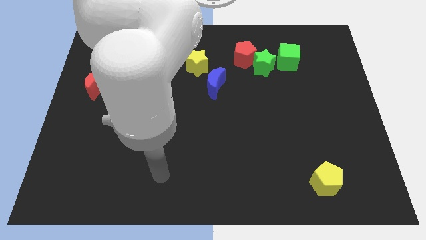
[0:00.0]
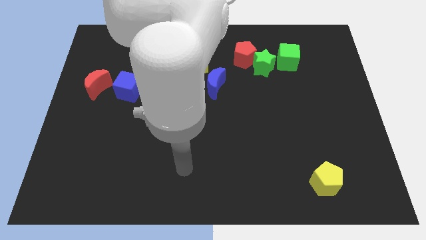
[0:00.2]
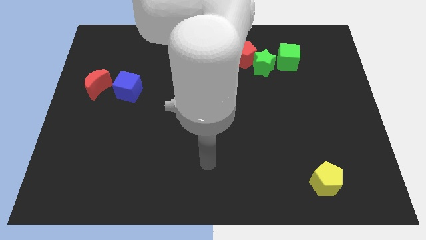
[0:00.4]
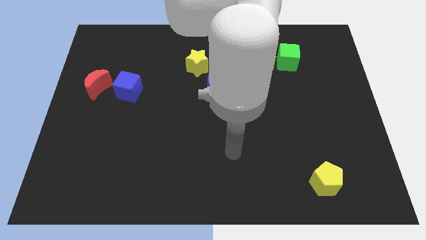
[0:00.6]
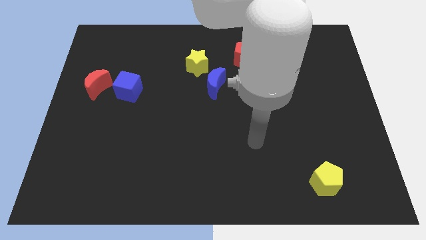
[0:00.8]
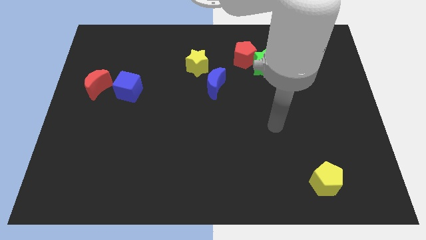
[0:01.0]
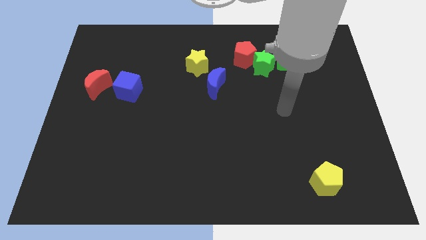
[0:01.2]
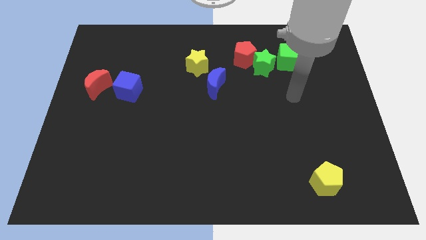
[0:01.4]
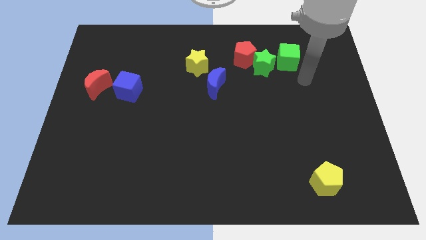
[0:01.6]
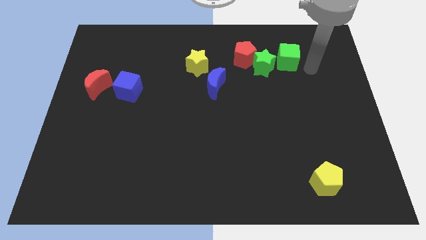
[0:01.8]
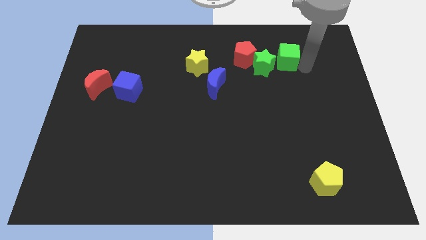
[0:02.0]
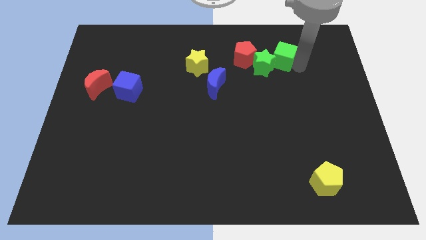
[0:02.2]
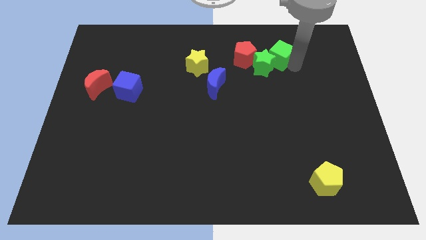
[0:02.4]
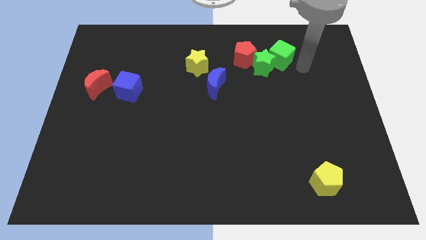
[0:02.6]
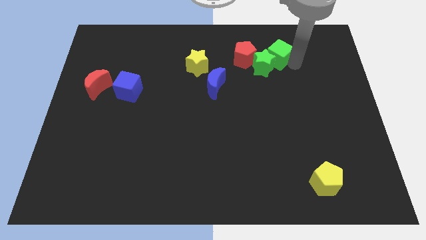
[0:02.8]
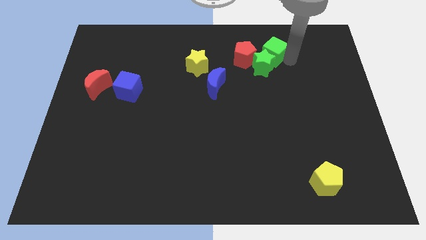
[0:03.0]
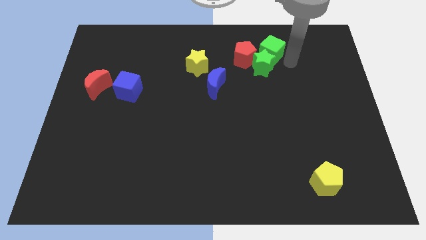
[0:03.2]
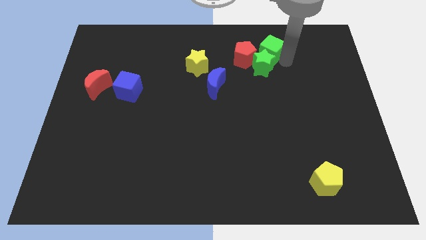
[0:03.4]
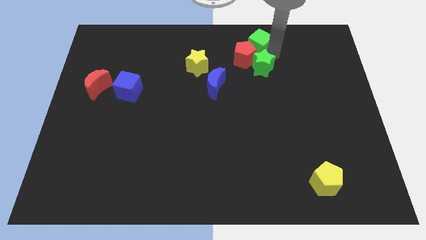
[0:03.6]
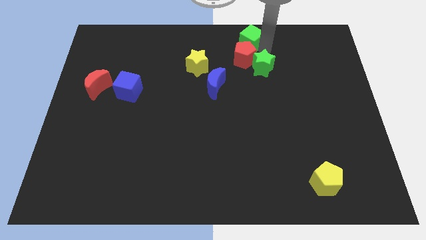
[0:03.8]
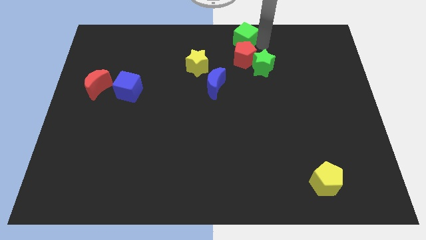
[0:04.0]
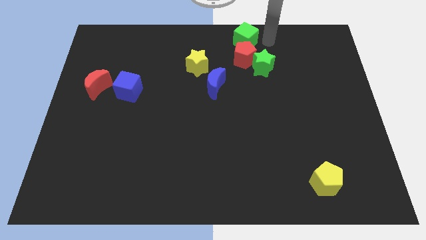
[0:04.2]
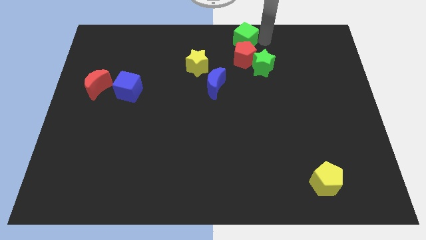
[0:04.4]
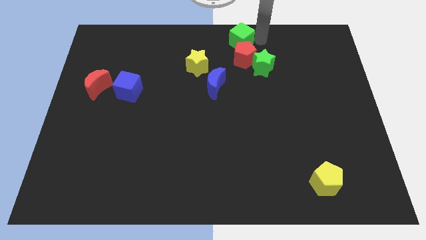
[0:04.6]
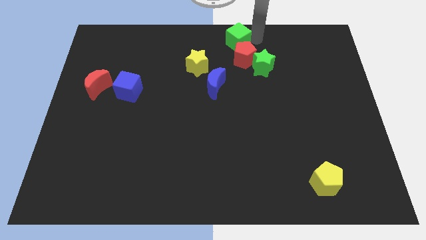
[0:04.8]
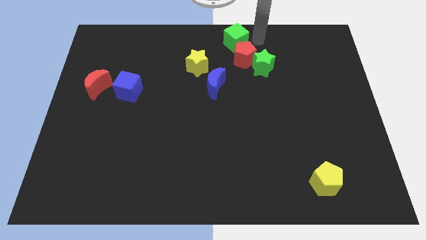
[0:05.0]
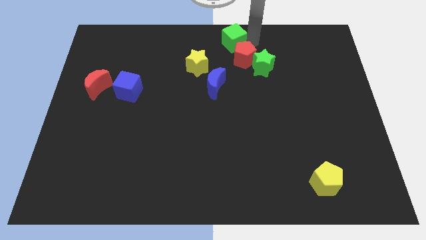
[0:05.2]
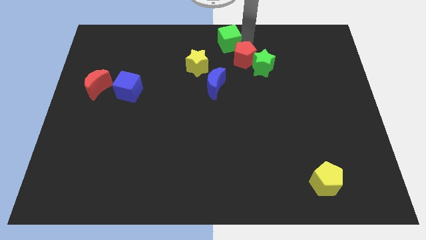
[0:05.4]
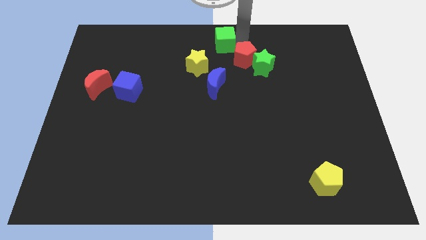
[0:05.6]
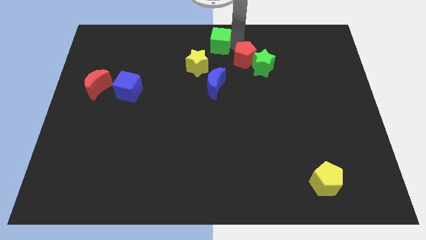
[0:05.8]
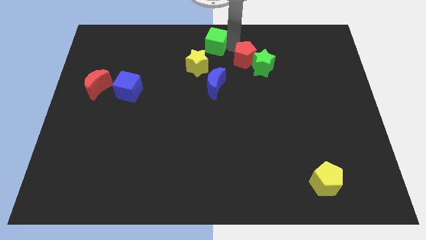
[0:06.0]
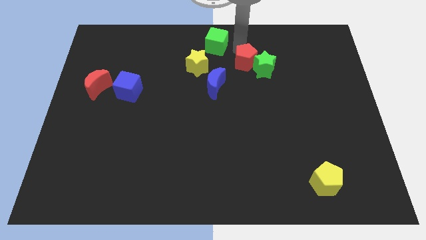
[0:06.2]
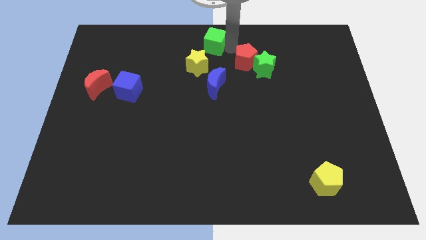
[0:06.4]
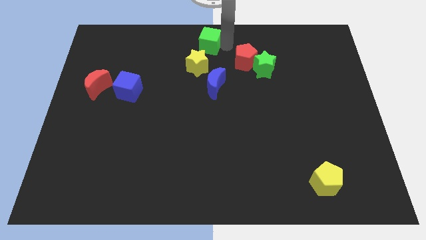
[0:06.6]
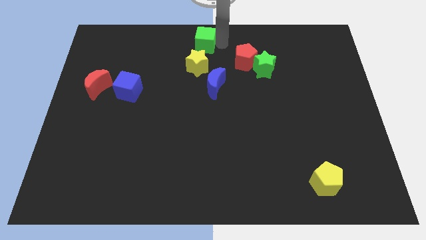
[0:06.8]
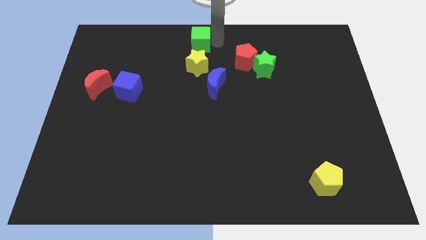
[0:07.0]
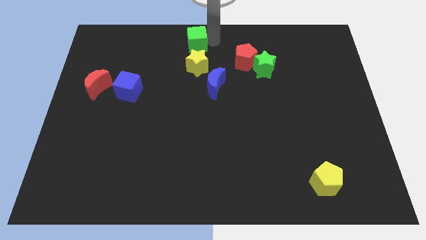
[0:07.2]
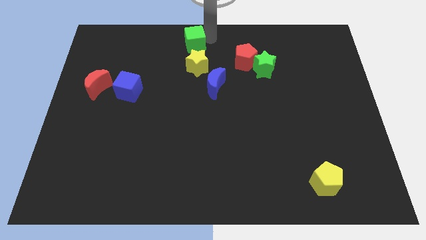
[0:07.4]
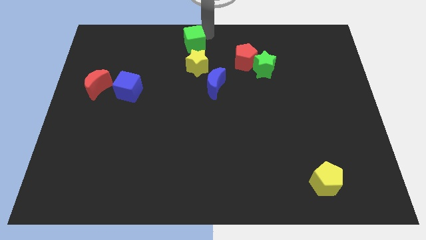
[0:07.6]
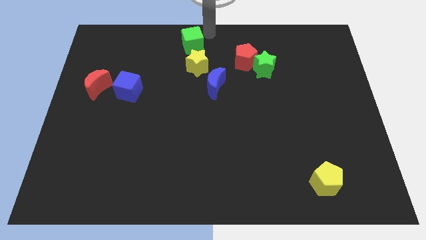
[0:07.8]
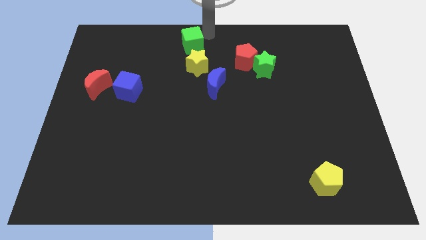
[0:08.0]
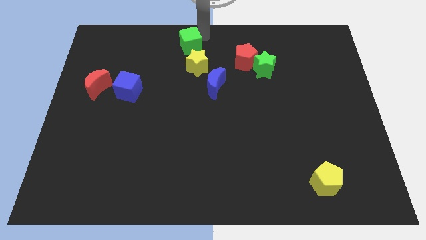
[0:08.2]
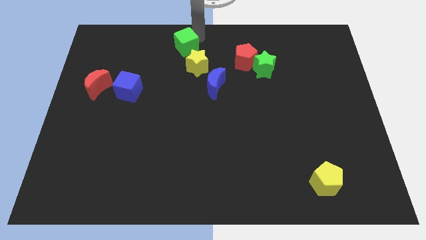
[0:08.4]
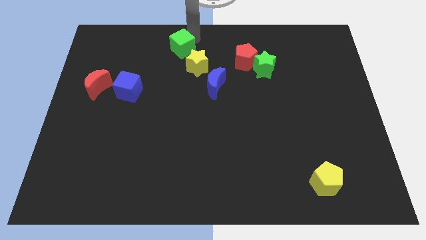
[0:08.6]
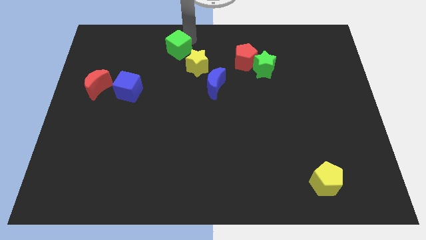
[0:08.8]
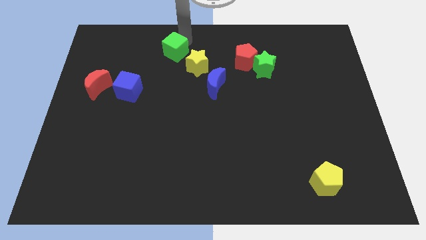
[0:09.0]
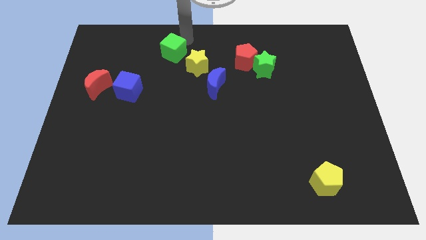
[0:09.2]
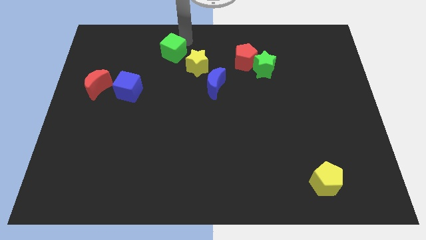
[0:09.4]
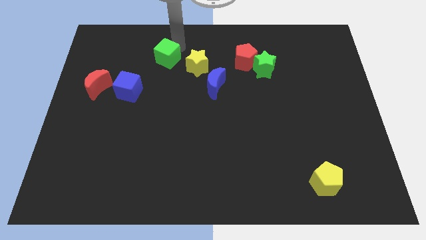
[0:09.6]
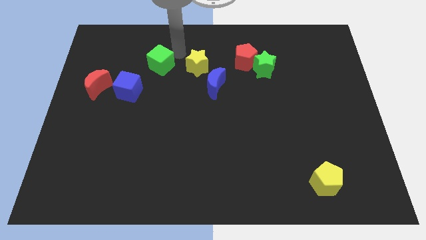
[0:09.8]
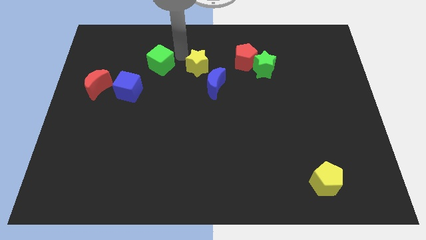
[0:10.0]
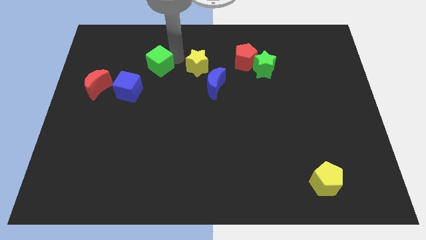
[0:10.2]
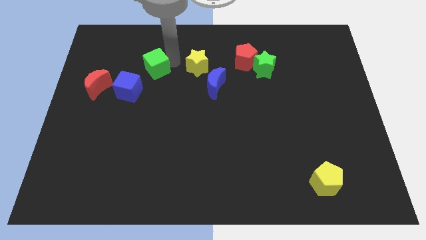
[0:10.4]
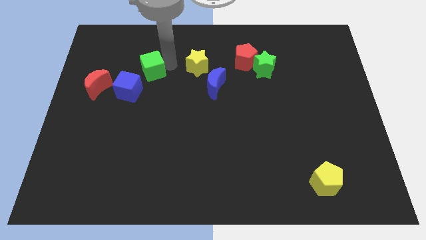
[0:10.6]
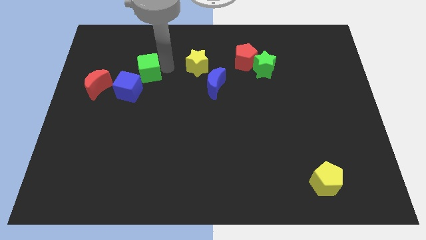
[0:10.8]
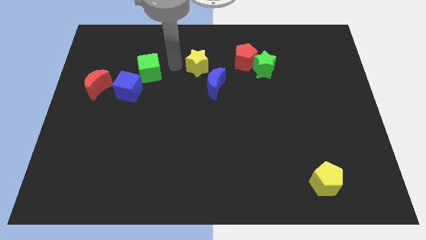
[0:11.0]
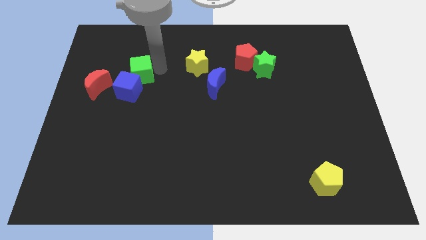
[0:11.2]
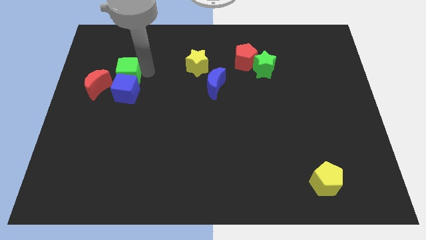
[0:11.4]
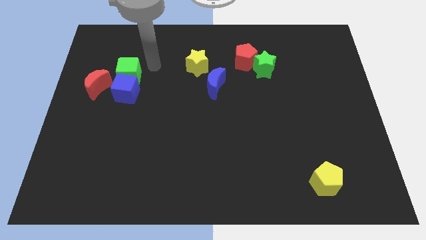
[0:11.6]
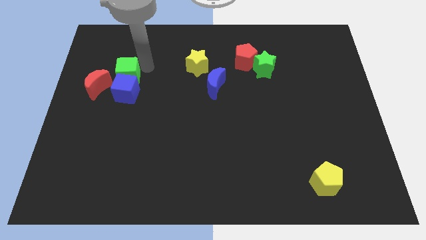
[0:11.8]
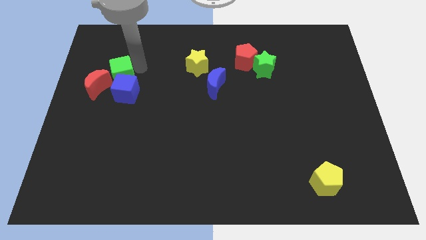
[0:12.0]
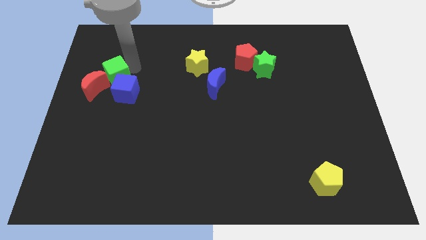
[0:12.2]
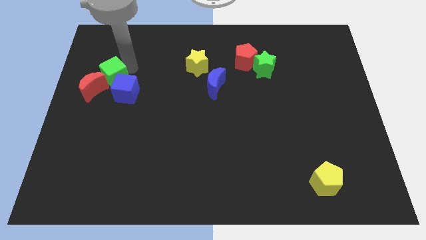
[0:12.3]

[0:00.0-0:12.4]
put the green cube next to the red moon

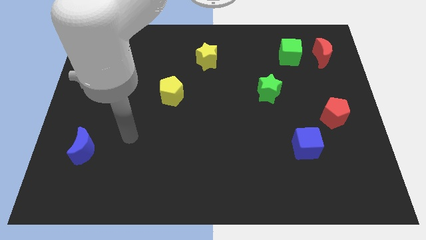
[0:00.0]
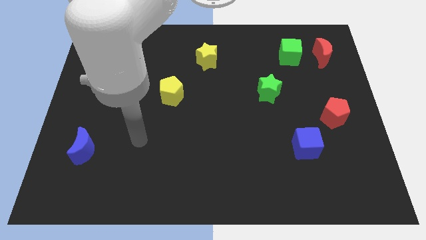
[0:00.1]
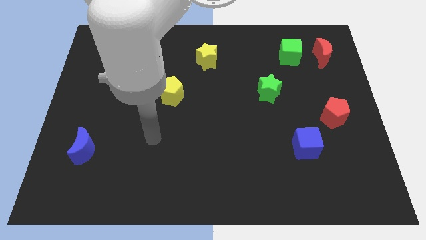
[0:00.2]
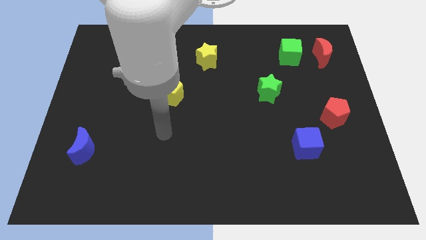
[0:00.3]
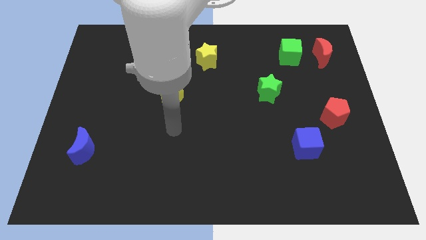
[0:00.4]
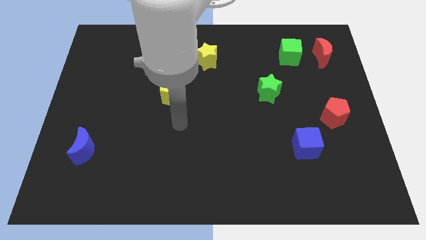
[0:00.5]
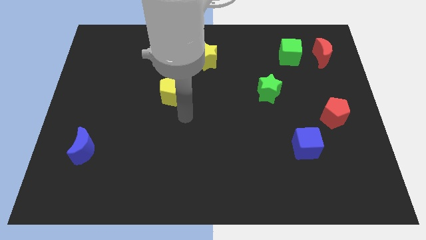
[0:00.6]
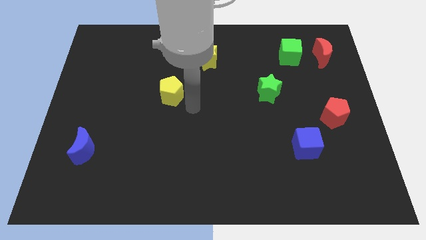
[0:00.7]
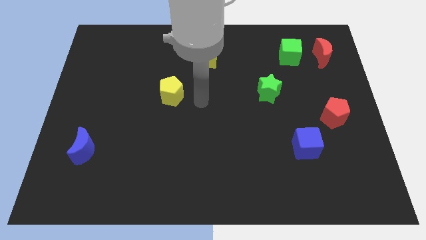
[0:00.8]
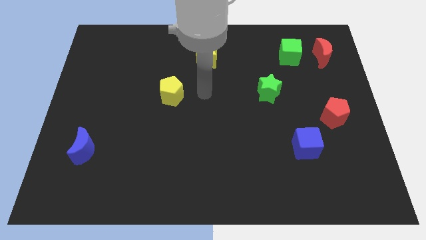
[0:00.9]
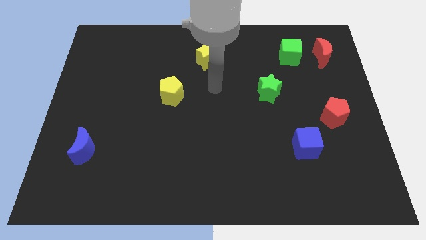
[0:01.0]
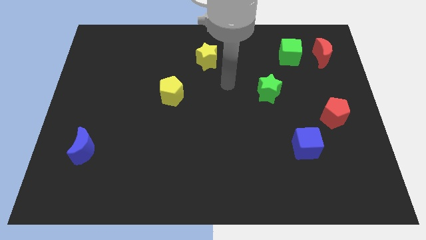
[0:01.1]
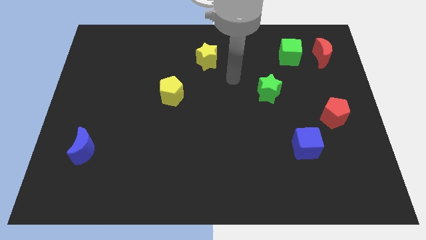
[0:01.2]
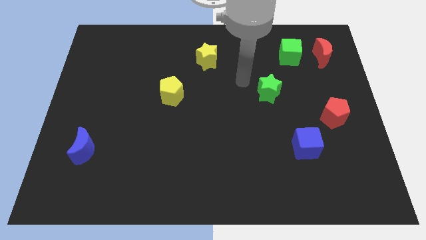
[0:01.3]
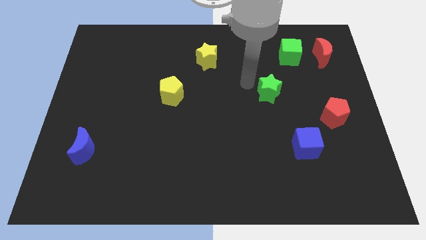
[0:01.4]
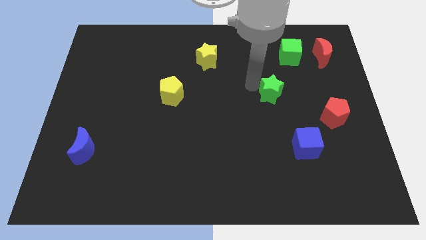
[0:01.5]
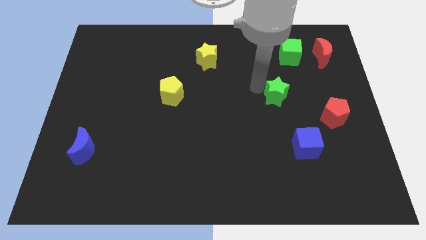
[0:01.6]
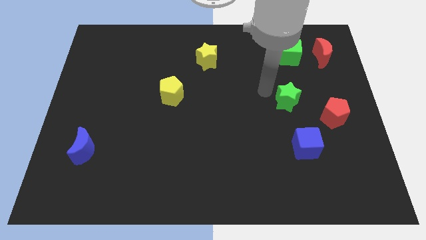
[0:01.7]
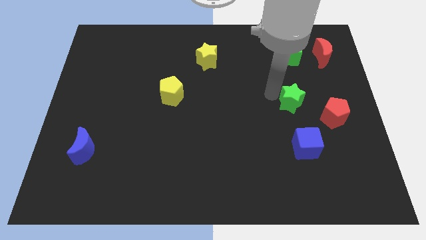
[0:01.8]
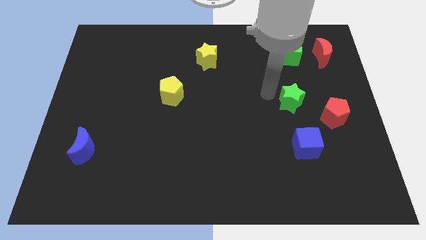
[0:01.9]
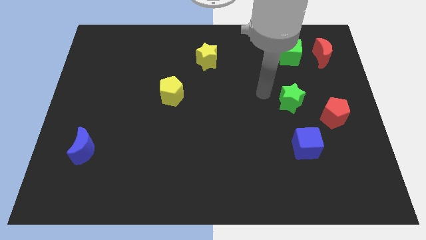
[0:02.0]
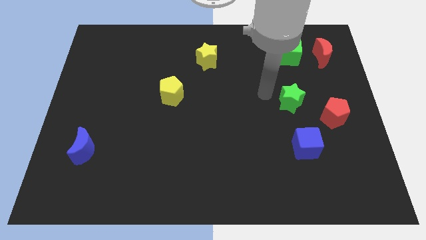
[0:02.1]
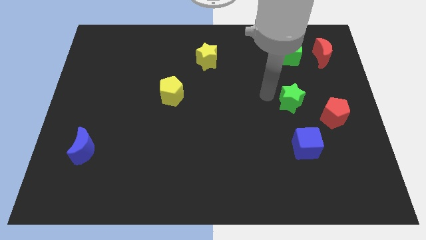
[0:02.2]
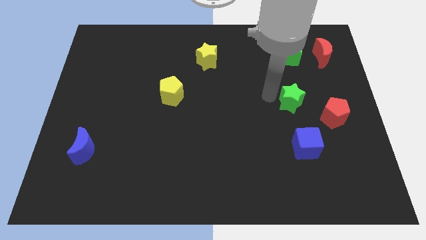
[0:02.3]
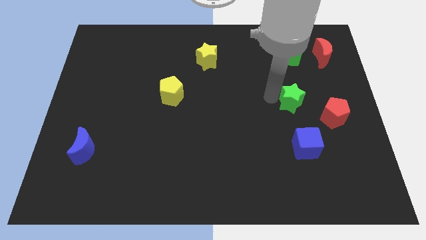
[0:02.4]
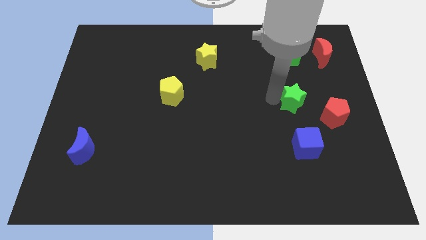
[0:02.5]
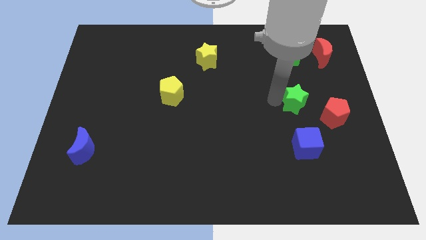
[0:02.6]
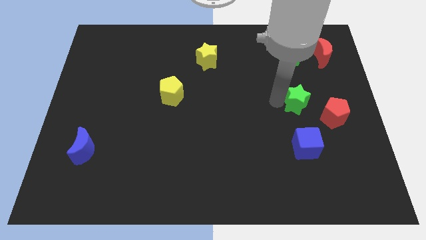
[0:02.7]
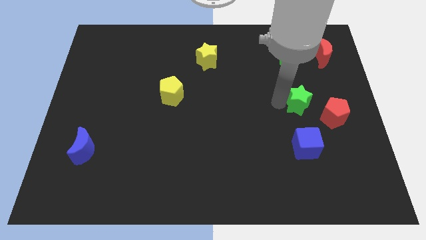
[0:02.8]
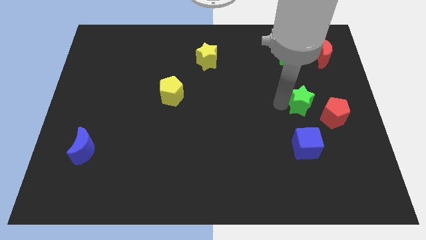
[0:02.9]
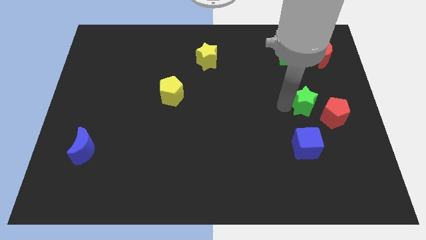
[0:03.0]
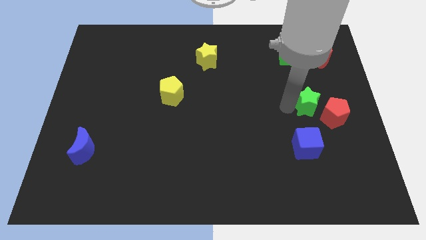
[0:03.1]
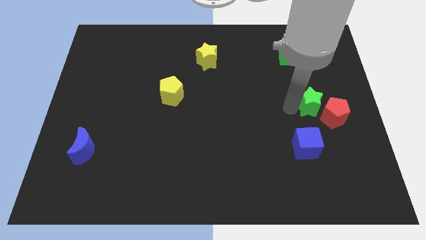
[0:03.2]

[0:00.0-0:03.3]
move the green star to the red pentagon
